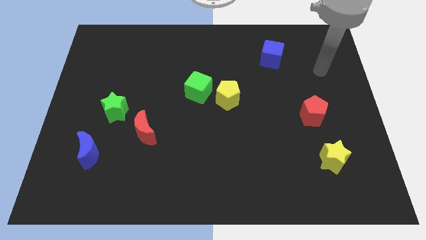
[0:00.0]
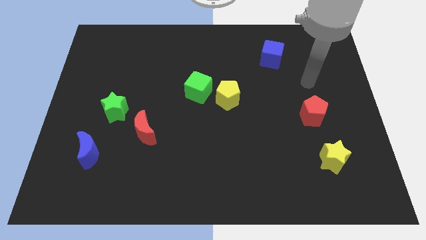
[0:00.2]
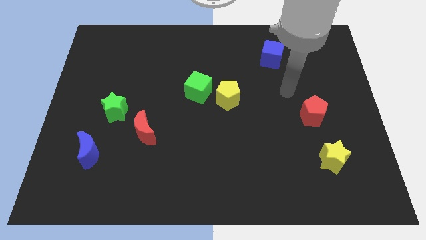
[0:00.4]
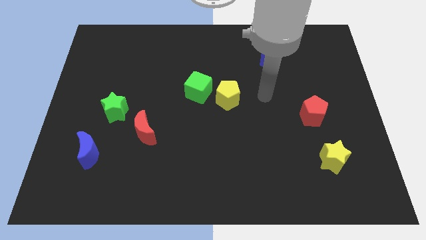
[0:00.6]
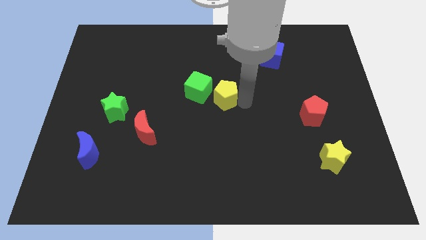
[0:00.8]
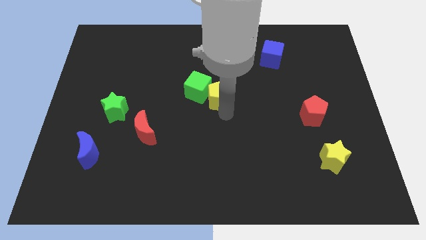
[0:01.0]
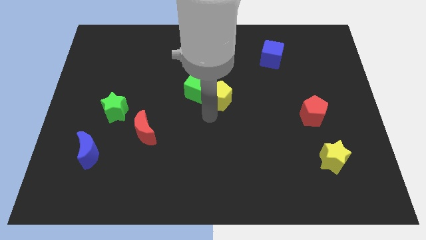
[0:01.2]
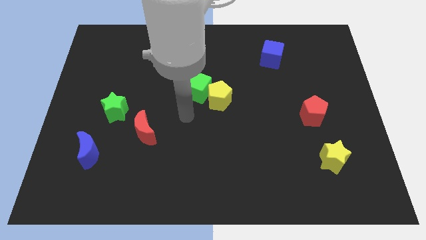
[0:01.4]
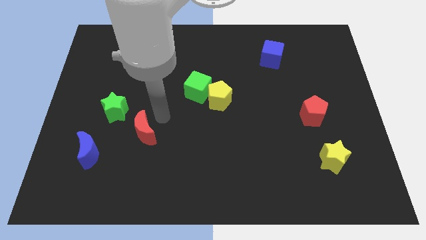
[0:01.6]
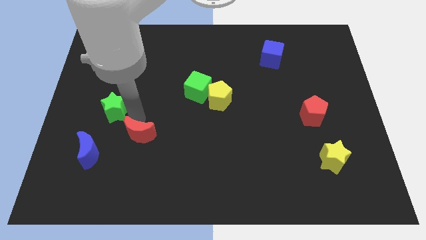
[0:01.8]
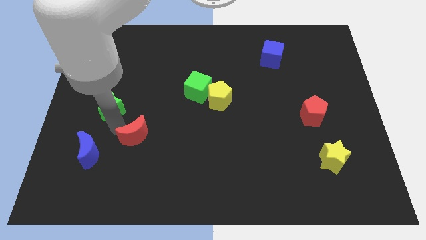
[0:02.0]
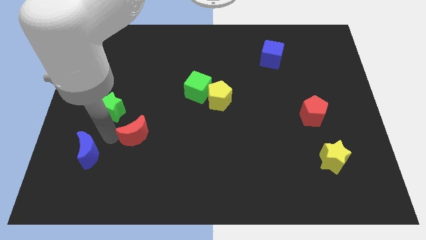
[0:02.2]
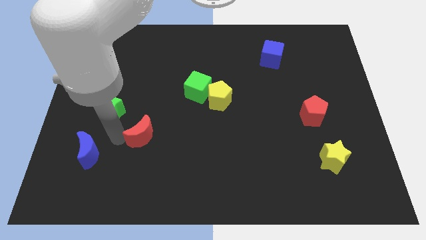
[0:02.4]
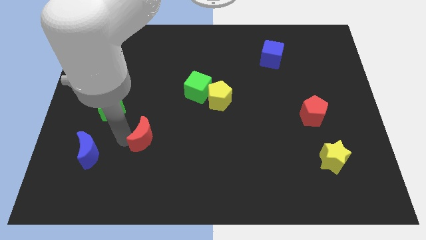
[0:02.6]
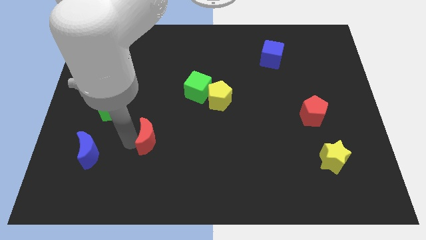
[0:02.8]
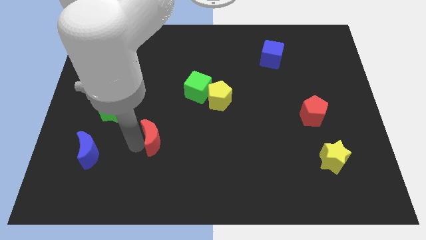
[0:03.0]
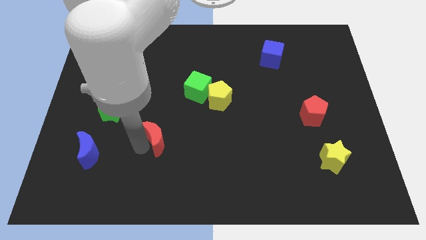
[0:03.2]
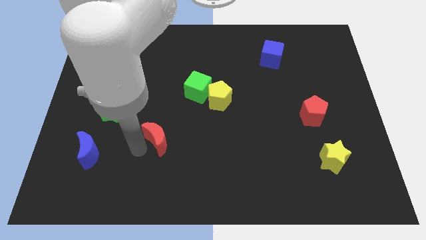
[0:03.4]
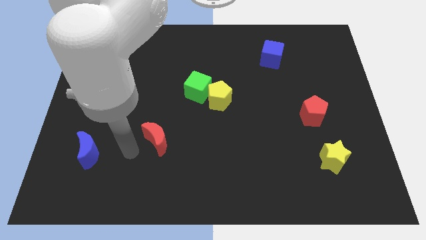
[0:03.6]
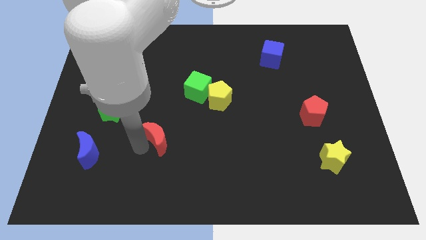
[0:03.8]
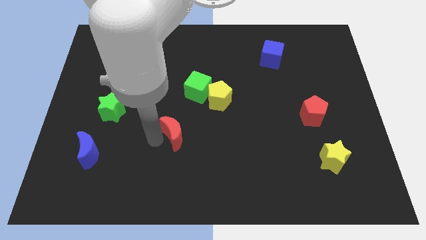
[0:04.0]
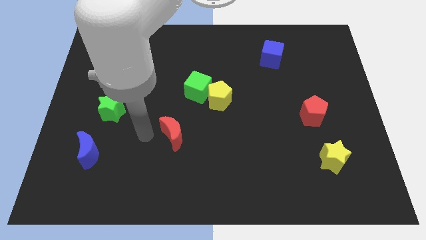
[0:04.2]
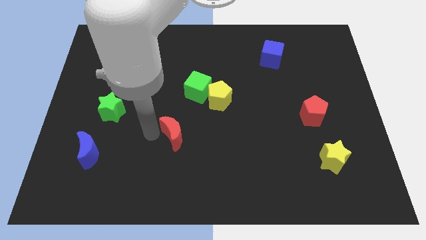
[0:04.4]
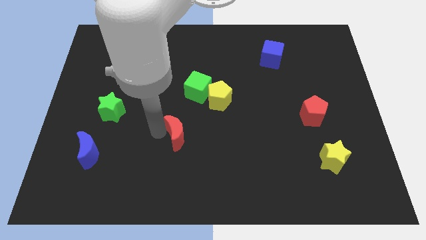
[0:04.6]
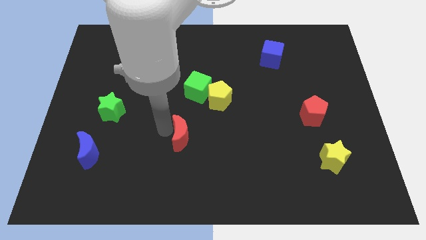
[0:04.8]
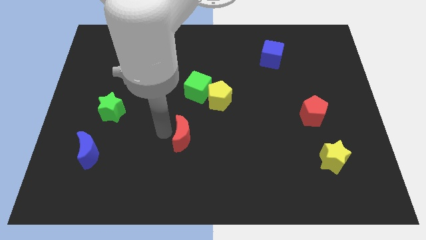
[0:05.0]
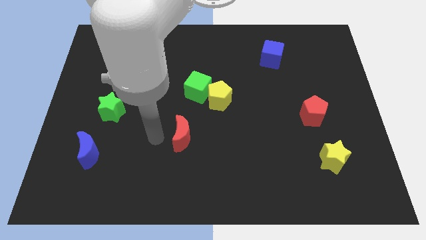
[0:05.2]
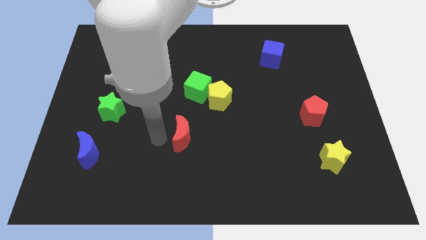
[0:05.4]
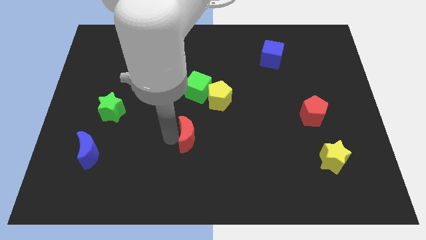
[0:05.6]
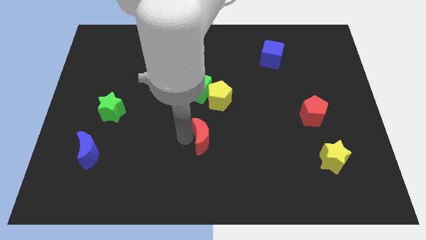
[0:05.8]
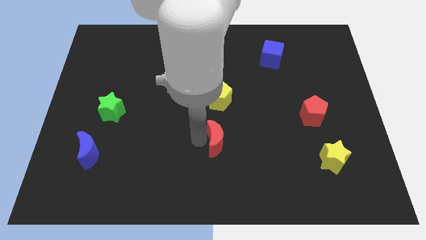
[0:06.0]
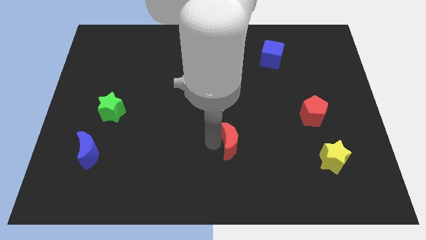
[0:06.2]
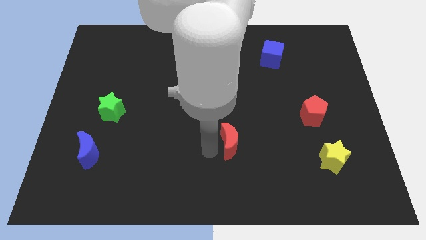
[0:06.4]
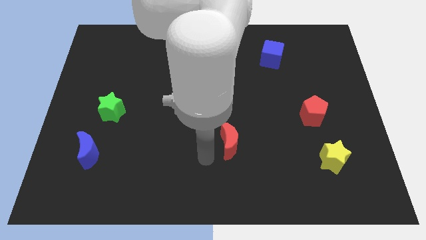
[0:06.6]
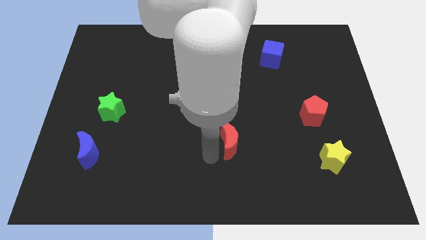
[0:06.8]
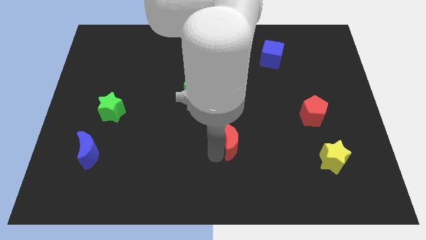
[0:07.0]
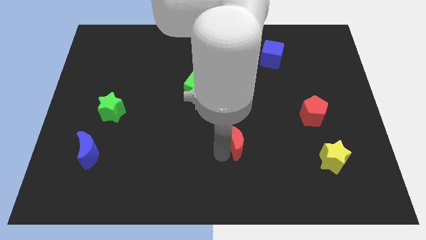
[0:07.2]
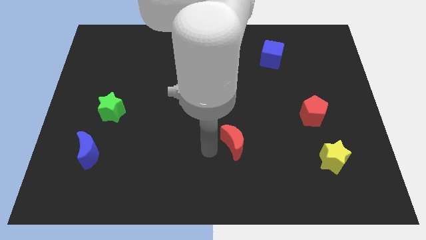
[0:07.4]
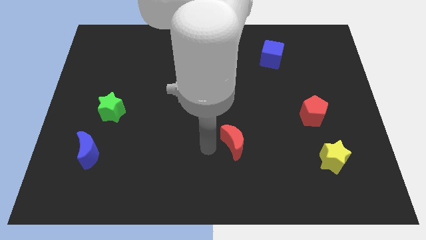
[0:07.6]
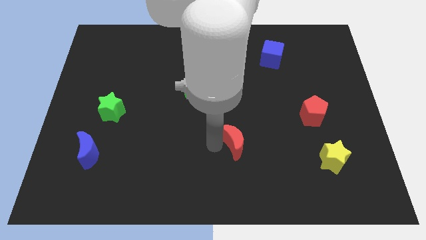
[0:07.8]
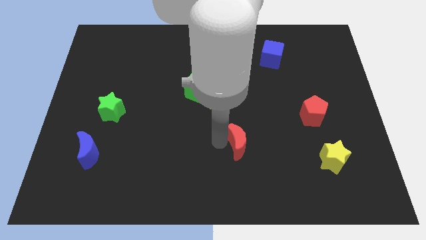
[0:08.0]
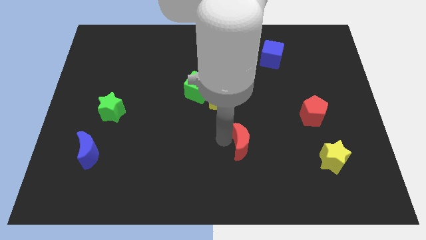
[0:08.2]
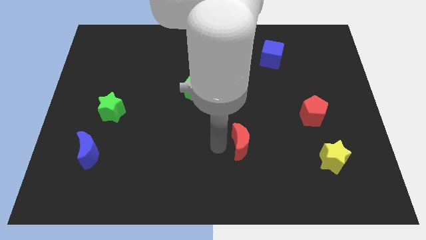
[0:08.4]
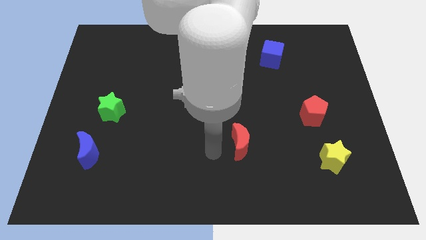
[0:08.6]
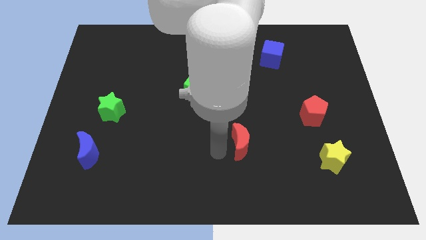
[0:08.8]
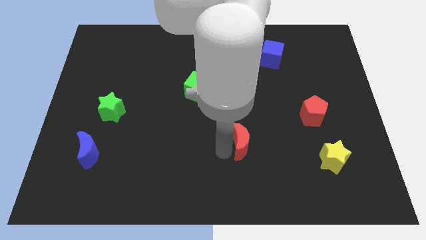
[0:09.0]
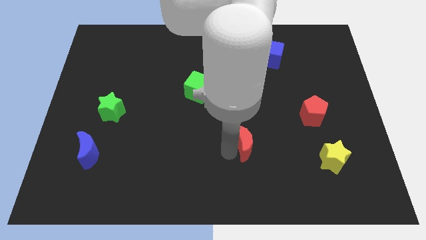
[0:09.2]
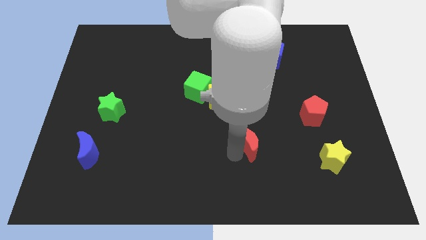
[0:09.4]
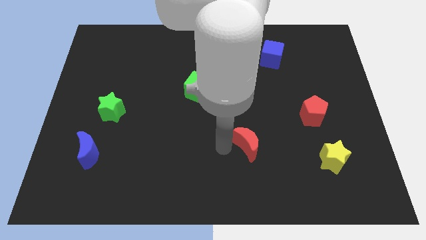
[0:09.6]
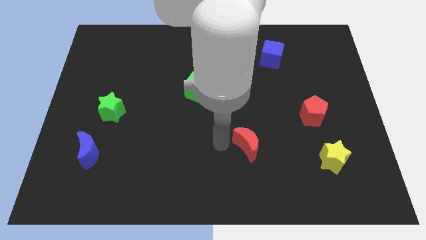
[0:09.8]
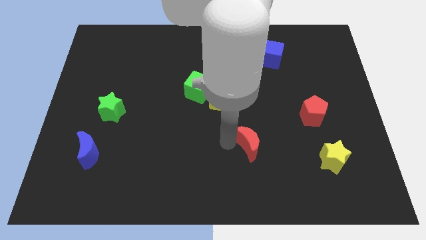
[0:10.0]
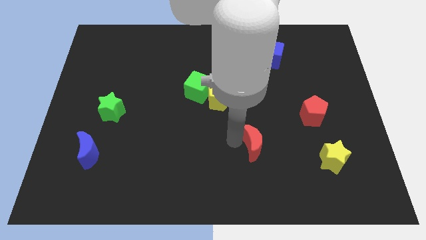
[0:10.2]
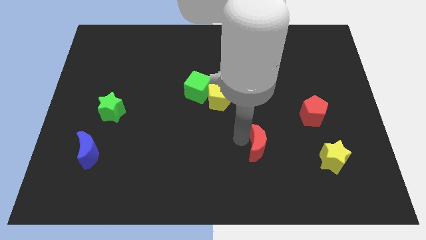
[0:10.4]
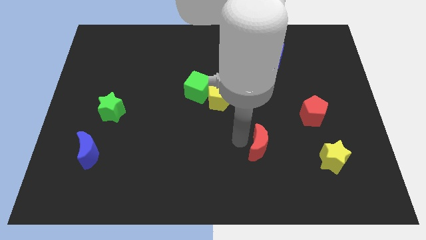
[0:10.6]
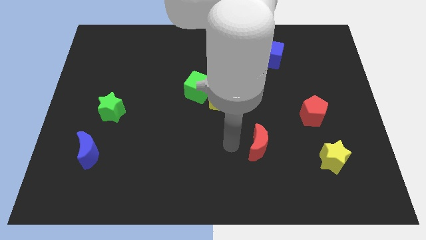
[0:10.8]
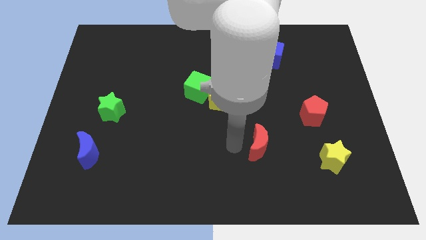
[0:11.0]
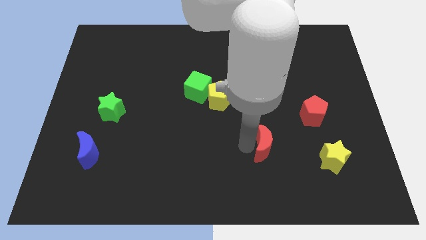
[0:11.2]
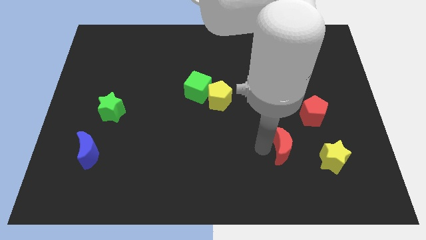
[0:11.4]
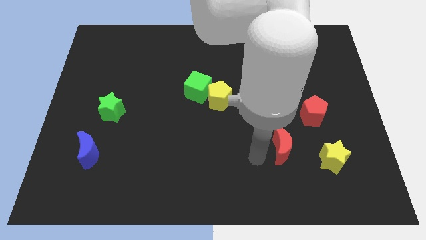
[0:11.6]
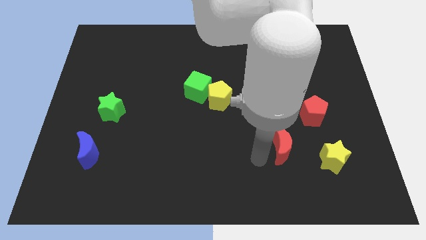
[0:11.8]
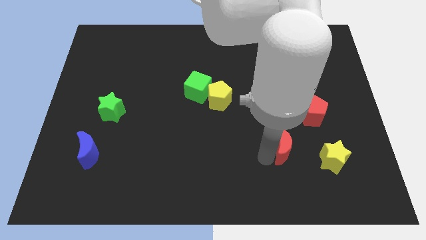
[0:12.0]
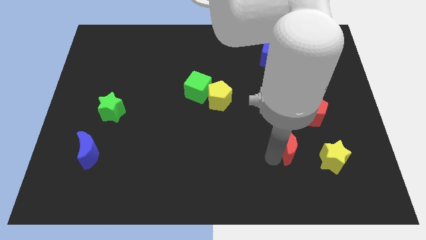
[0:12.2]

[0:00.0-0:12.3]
put the red moon to the top left of the yellow star
